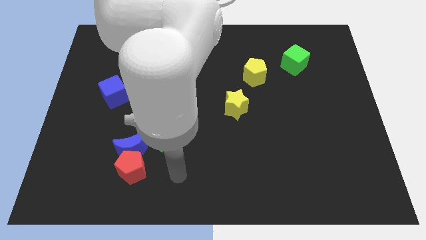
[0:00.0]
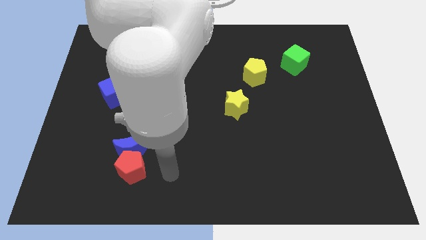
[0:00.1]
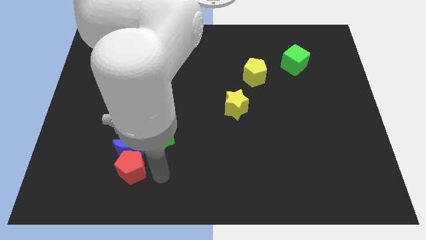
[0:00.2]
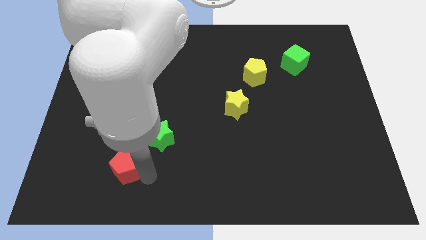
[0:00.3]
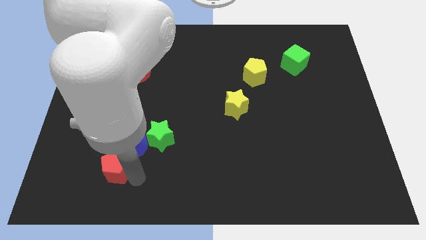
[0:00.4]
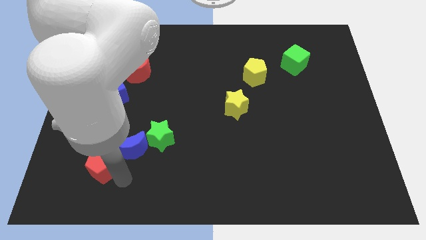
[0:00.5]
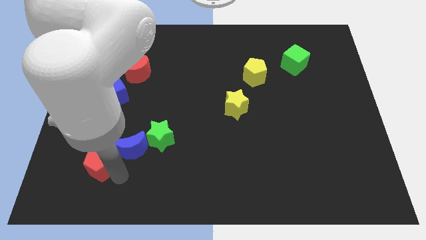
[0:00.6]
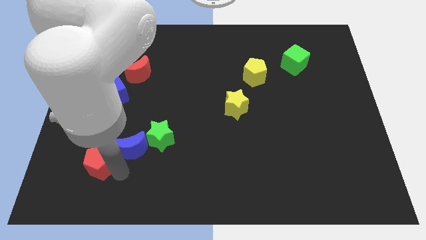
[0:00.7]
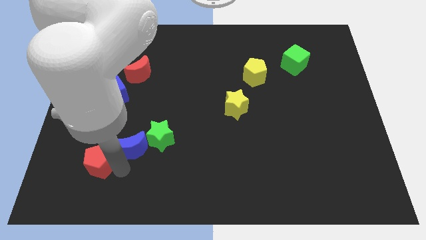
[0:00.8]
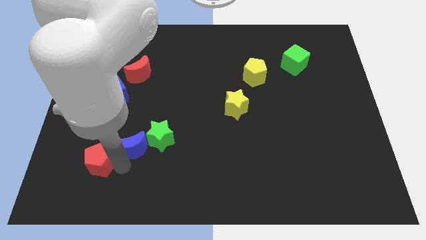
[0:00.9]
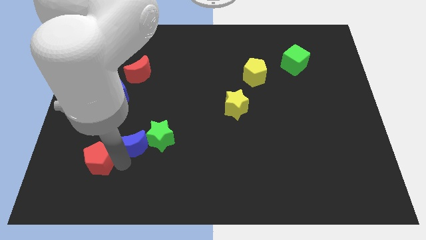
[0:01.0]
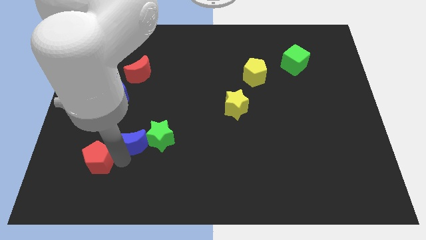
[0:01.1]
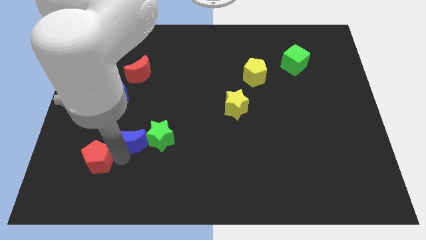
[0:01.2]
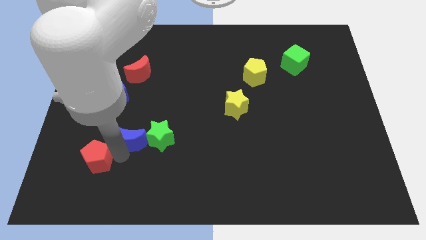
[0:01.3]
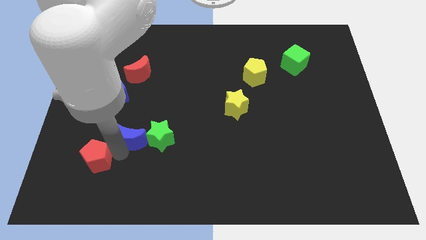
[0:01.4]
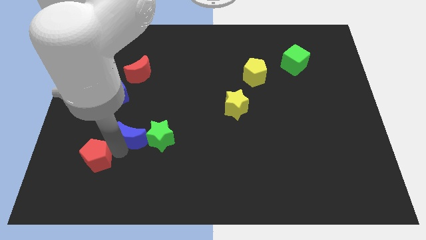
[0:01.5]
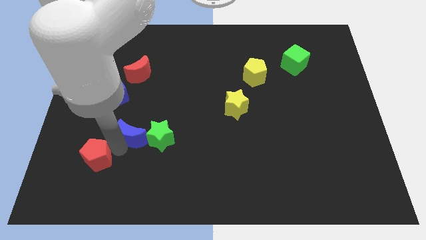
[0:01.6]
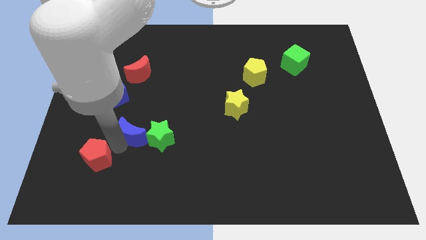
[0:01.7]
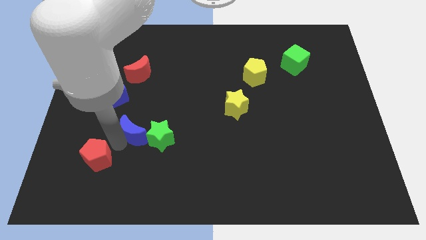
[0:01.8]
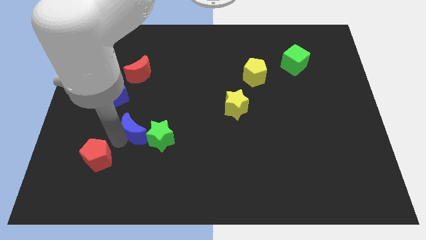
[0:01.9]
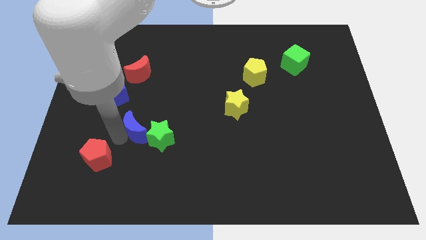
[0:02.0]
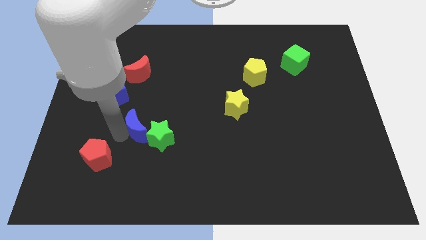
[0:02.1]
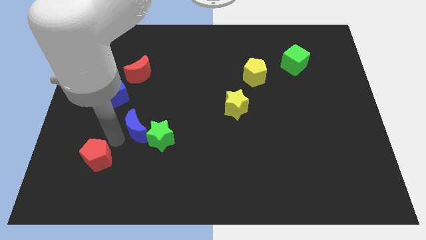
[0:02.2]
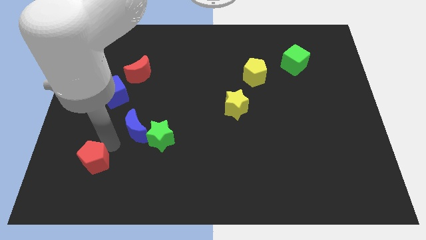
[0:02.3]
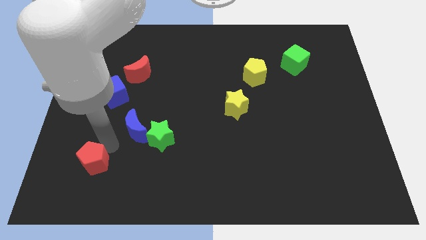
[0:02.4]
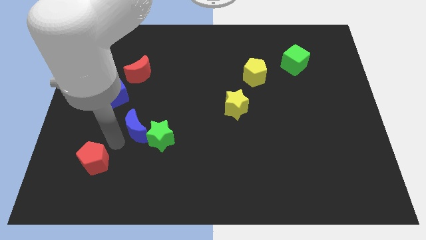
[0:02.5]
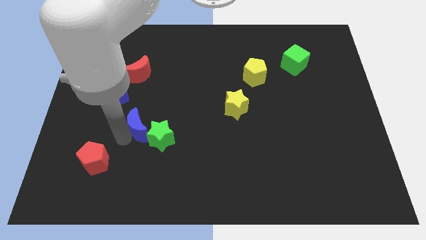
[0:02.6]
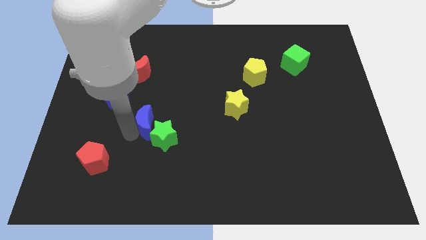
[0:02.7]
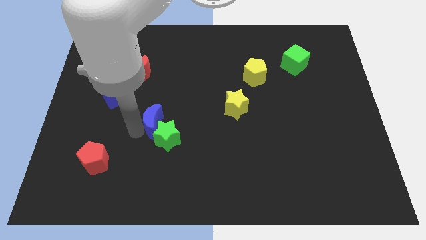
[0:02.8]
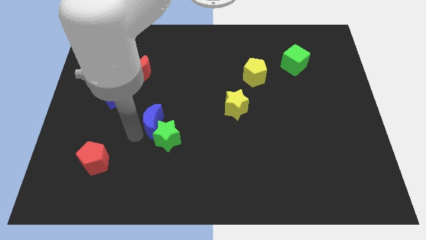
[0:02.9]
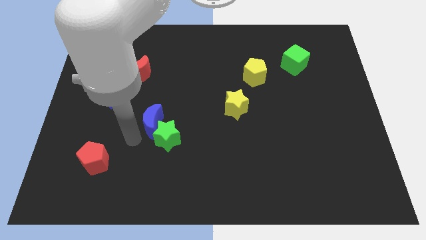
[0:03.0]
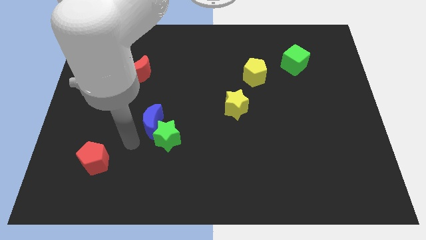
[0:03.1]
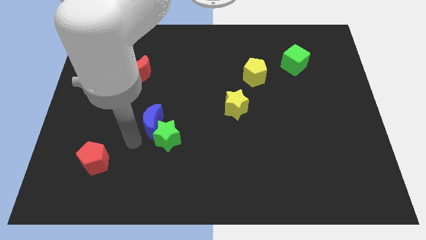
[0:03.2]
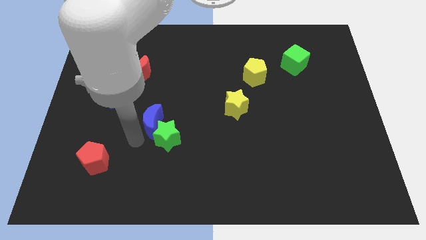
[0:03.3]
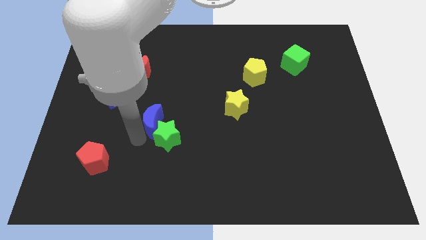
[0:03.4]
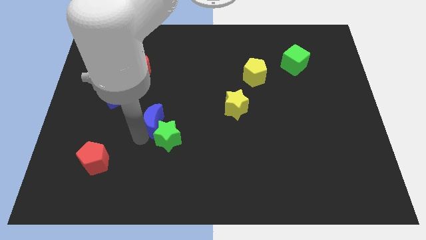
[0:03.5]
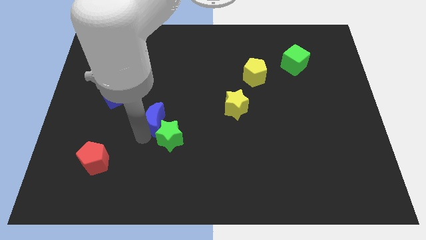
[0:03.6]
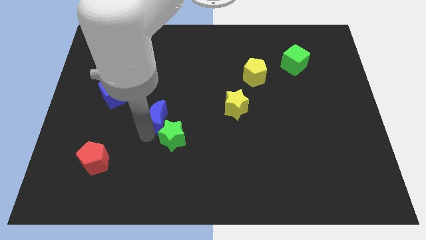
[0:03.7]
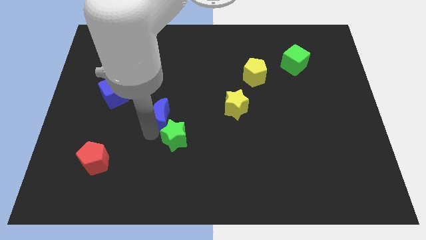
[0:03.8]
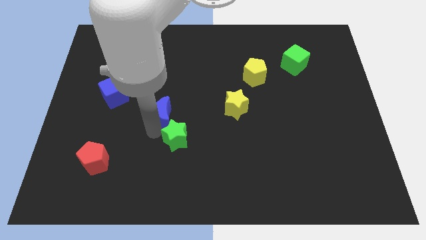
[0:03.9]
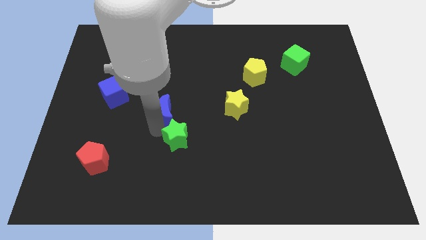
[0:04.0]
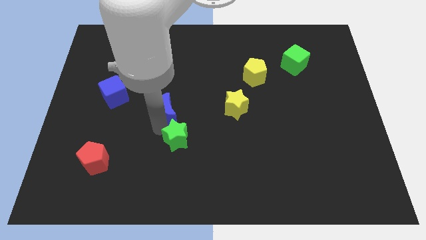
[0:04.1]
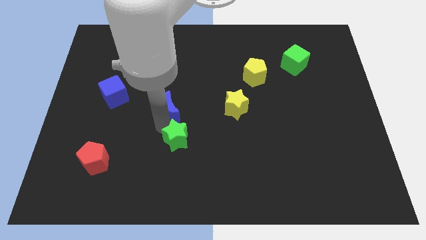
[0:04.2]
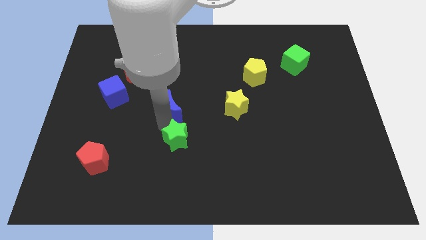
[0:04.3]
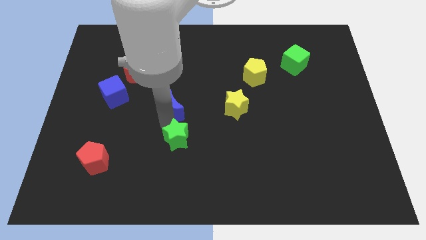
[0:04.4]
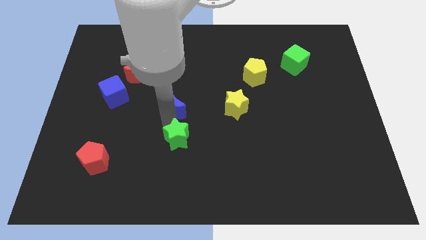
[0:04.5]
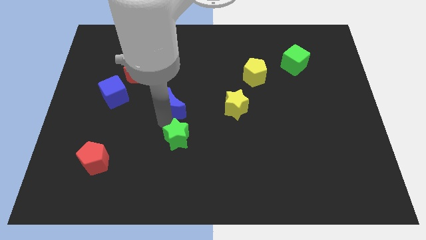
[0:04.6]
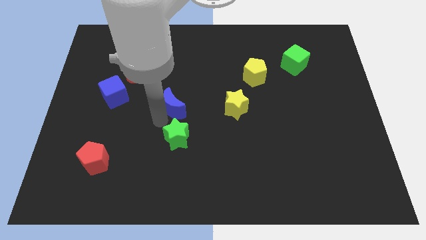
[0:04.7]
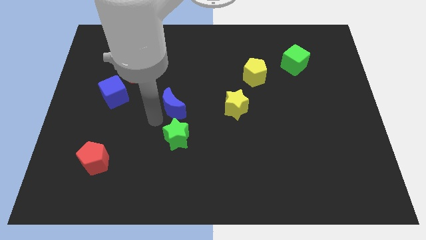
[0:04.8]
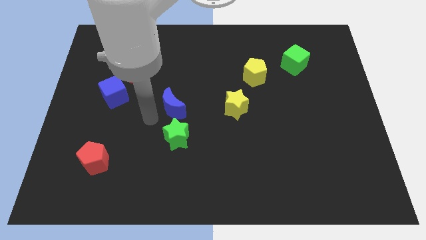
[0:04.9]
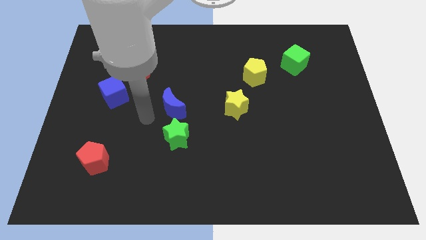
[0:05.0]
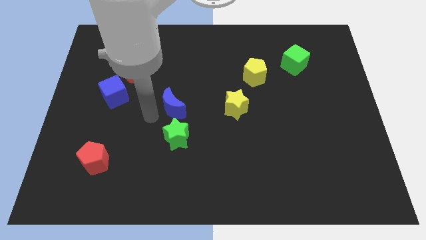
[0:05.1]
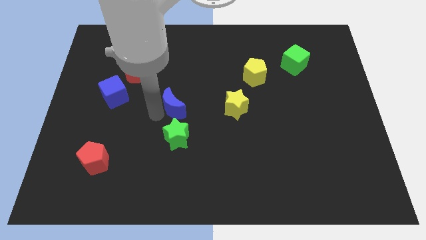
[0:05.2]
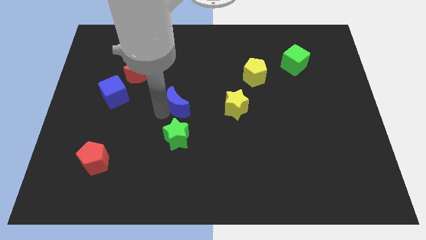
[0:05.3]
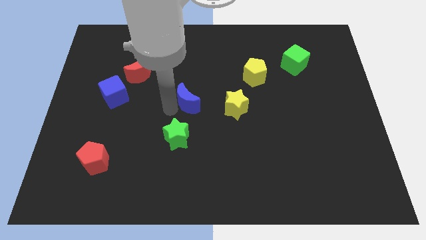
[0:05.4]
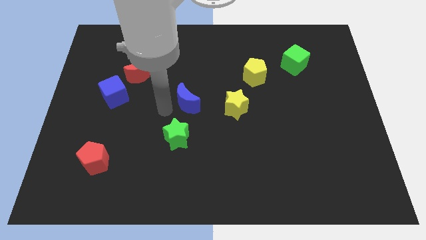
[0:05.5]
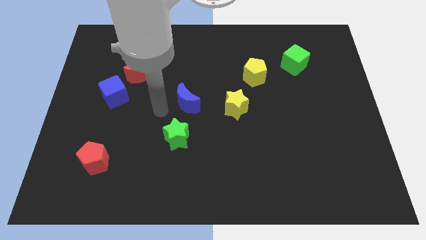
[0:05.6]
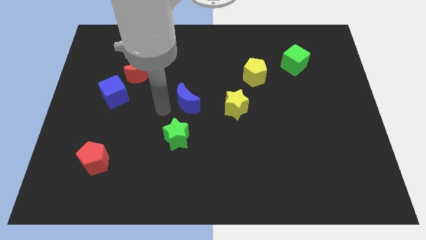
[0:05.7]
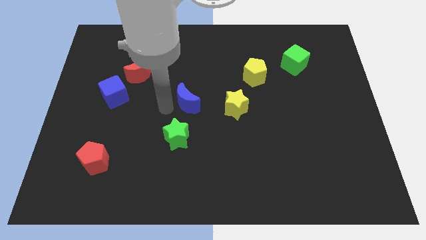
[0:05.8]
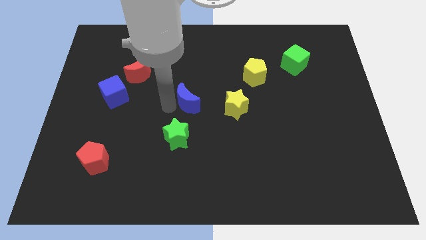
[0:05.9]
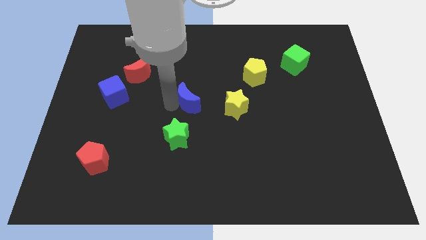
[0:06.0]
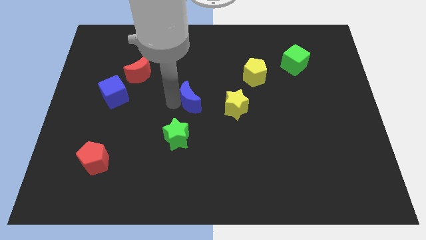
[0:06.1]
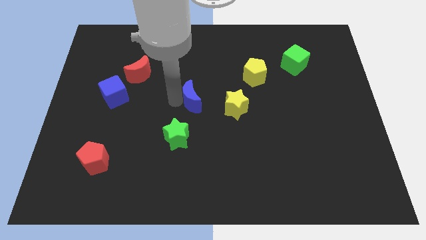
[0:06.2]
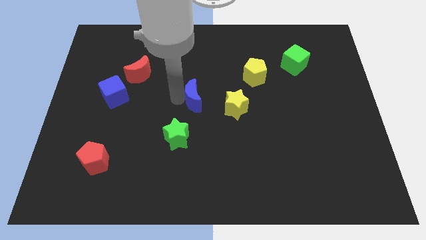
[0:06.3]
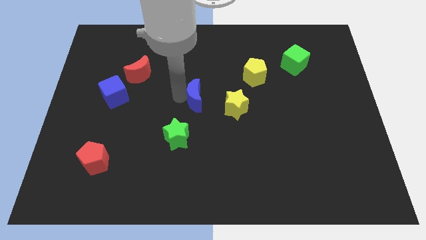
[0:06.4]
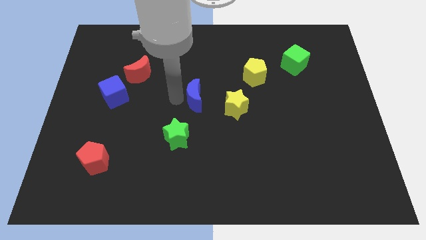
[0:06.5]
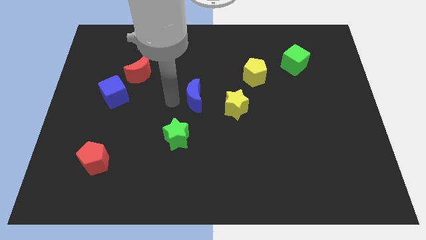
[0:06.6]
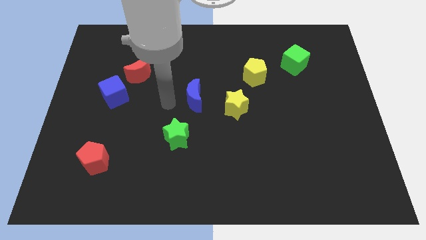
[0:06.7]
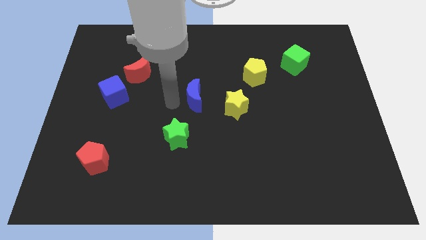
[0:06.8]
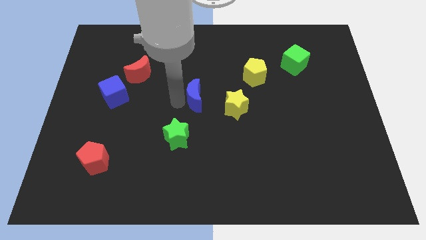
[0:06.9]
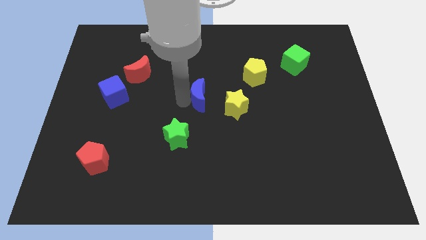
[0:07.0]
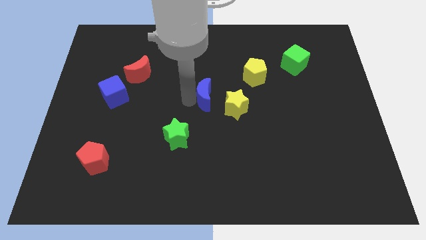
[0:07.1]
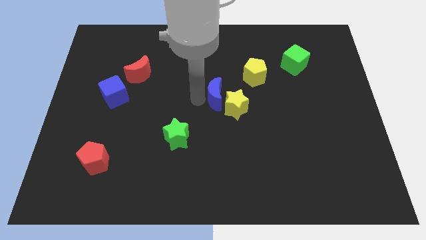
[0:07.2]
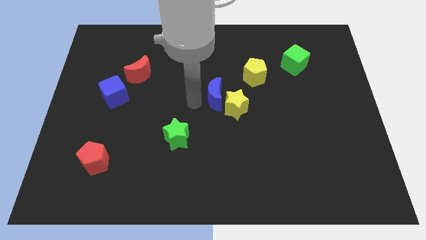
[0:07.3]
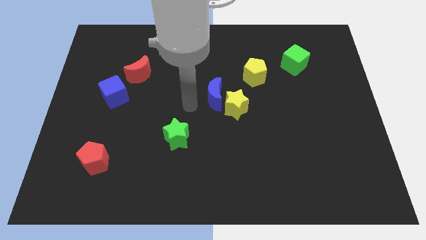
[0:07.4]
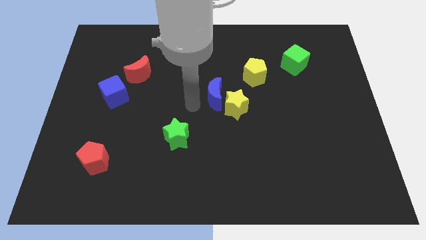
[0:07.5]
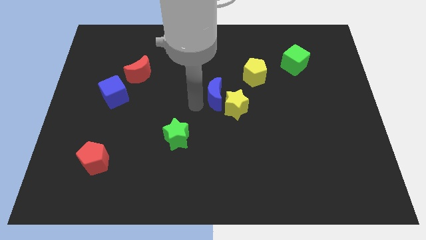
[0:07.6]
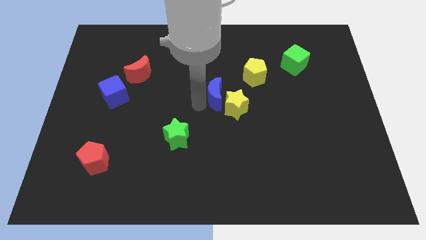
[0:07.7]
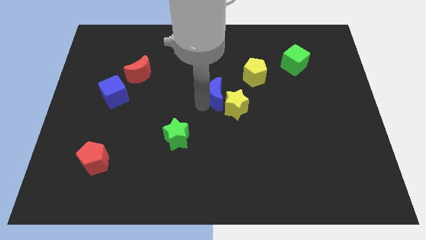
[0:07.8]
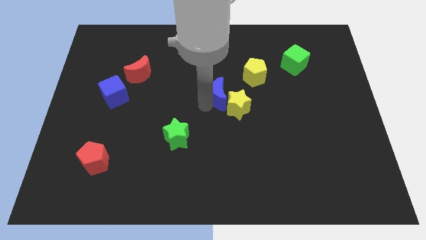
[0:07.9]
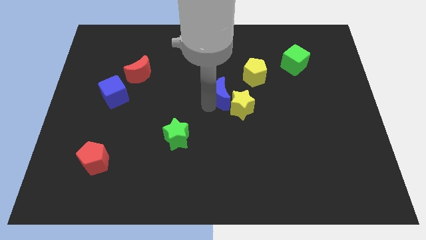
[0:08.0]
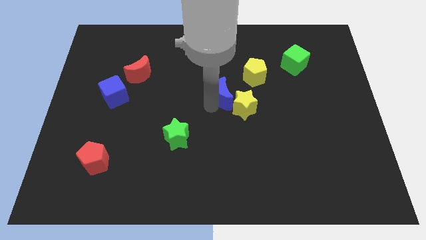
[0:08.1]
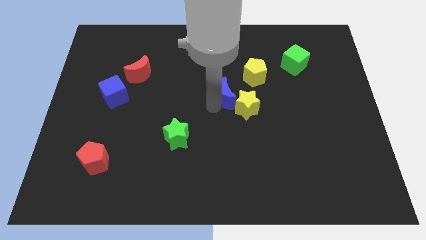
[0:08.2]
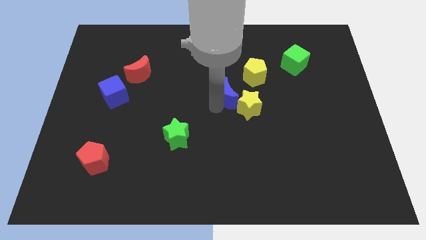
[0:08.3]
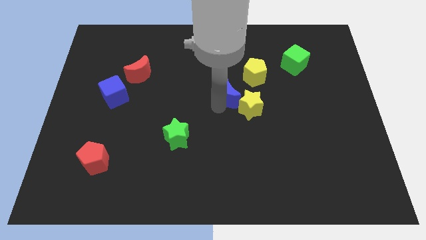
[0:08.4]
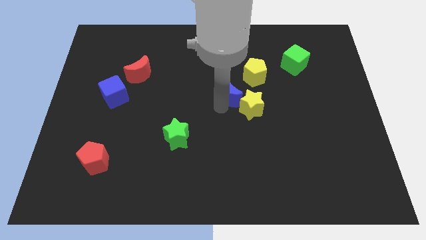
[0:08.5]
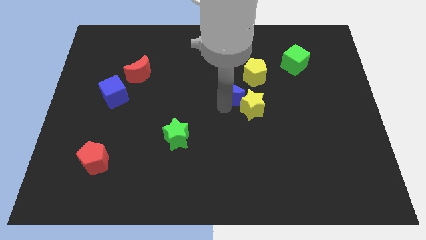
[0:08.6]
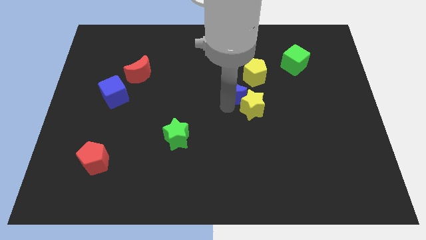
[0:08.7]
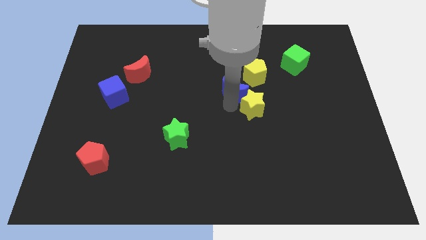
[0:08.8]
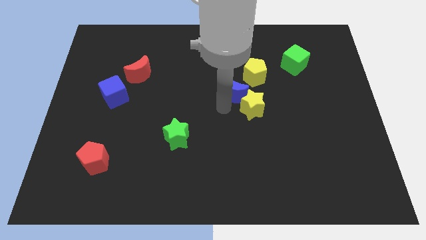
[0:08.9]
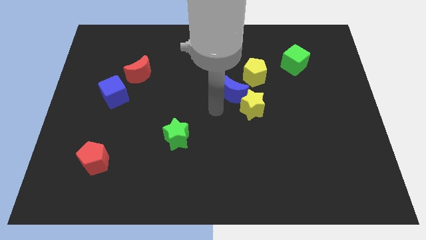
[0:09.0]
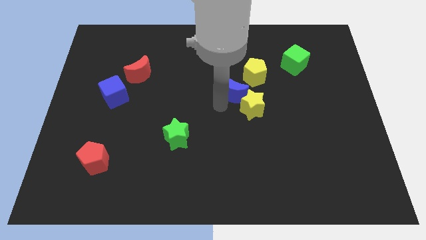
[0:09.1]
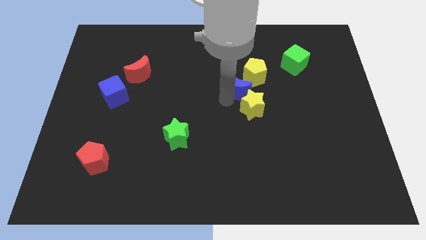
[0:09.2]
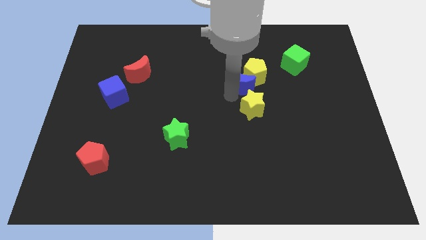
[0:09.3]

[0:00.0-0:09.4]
move the blue moon close to the yellow pentagon
